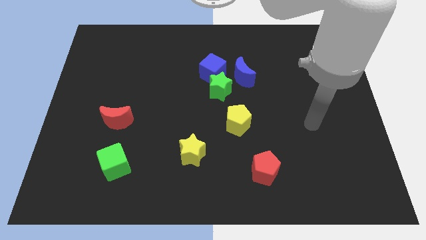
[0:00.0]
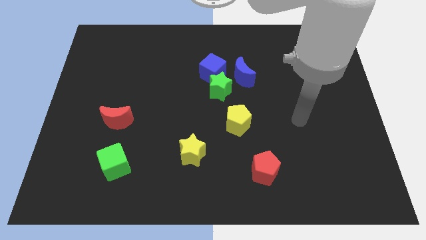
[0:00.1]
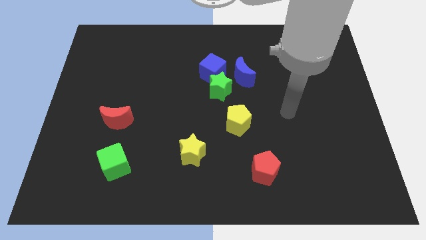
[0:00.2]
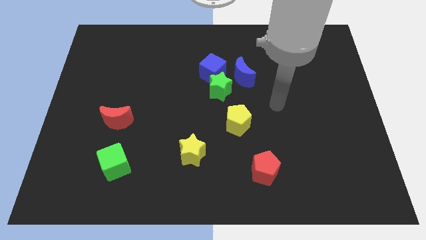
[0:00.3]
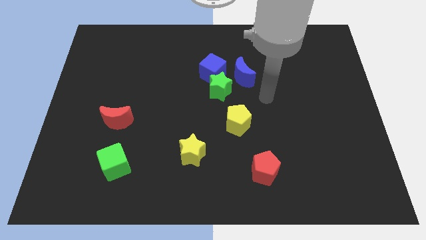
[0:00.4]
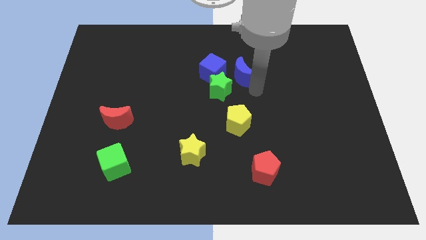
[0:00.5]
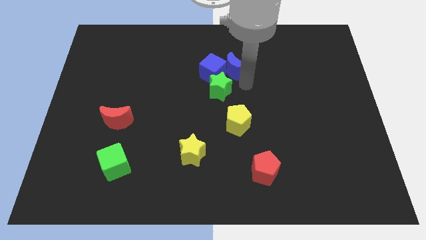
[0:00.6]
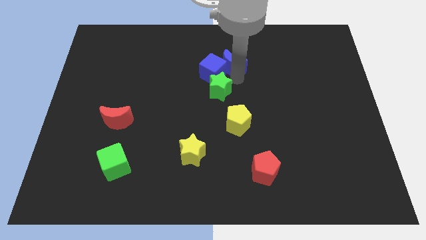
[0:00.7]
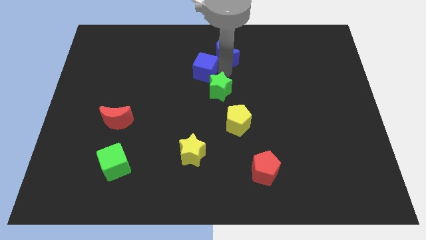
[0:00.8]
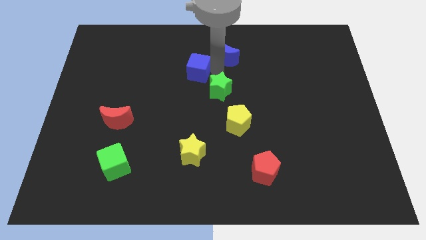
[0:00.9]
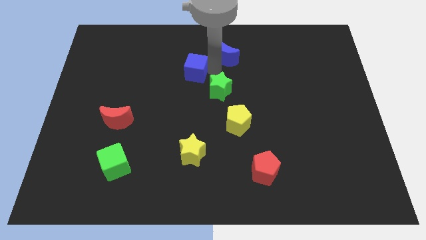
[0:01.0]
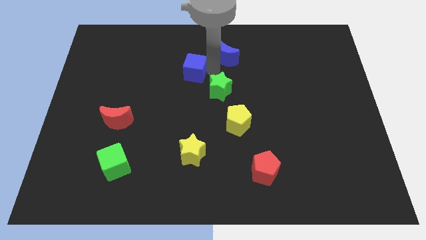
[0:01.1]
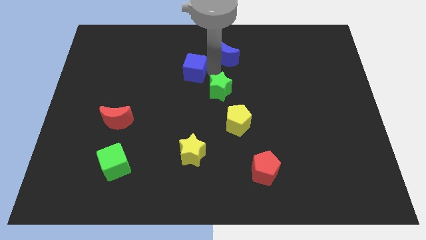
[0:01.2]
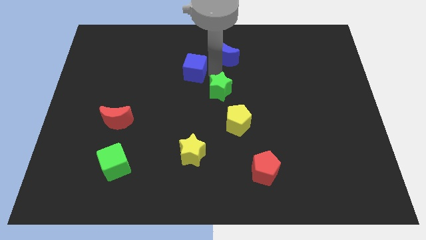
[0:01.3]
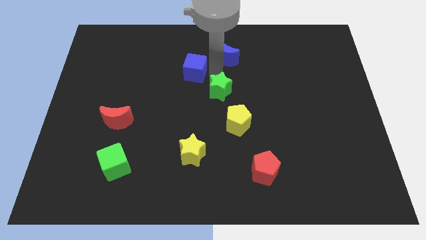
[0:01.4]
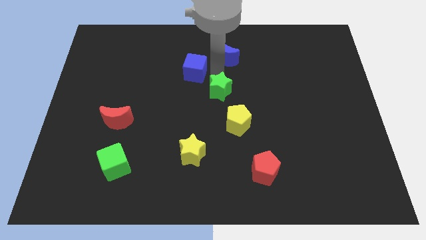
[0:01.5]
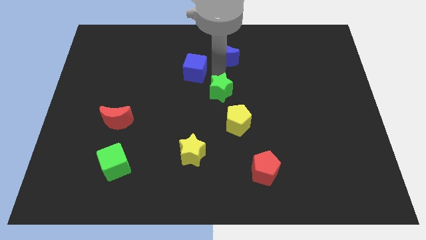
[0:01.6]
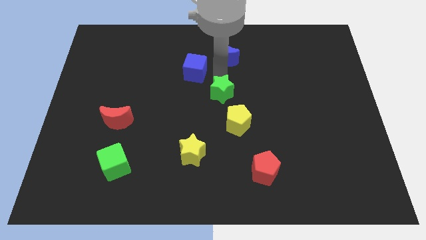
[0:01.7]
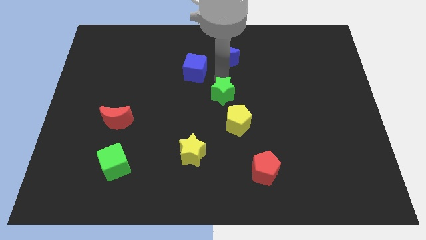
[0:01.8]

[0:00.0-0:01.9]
move the green star away from the blue cube and blue moon

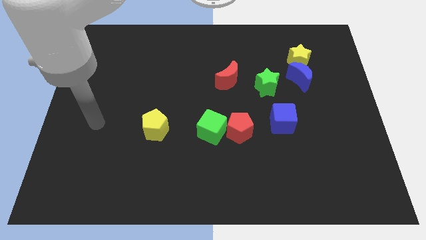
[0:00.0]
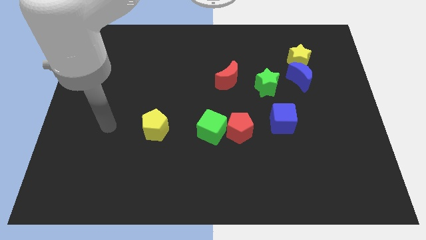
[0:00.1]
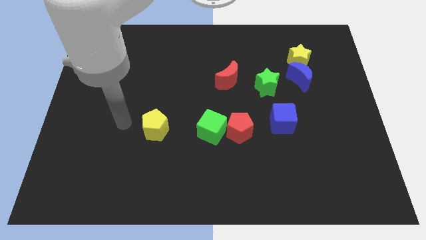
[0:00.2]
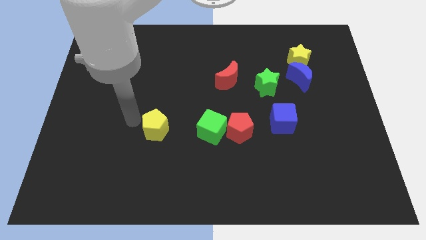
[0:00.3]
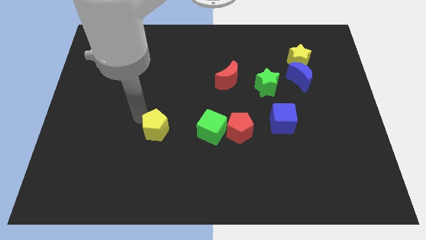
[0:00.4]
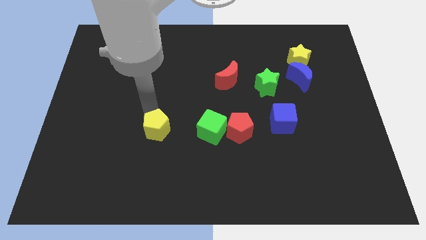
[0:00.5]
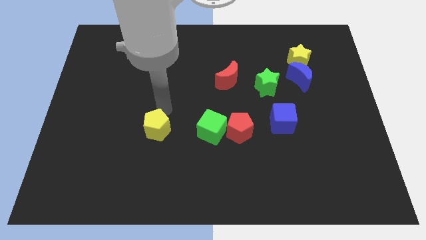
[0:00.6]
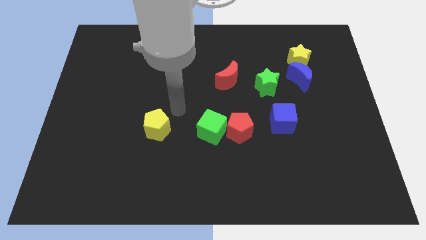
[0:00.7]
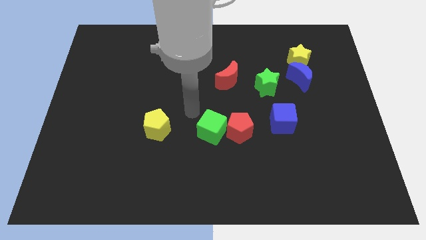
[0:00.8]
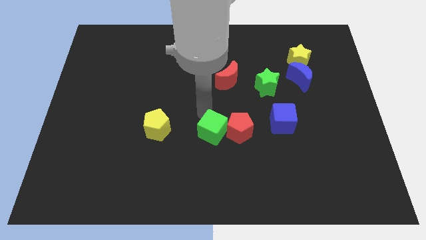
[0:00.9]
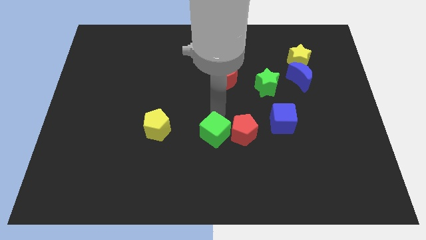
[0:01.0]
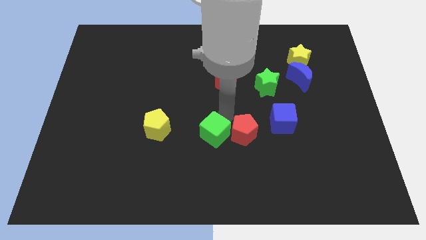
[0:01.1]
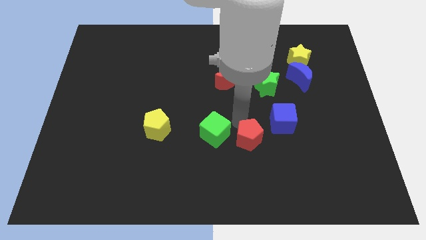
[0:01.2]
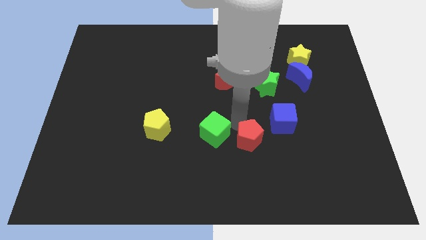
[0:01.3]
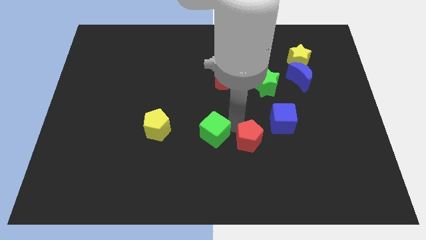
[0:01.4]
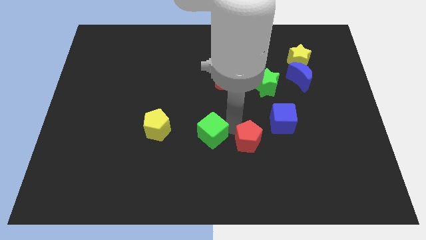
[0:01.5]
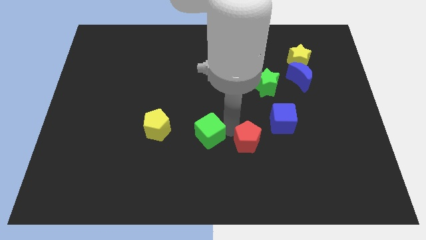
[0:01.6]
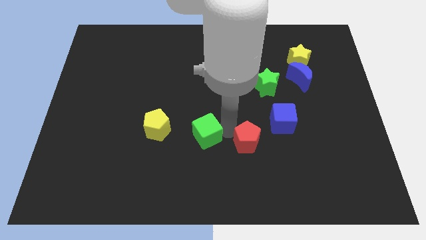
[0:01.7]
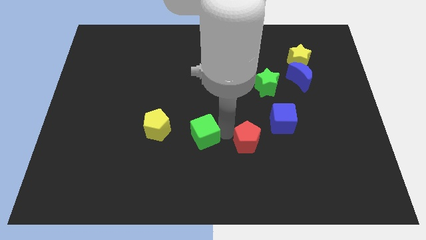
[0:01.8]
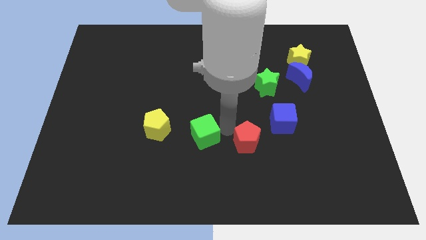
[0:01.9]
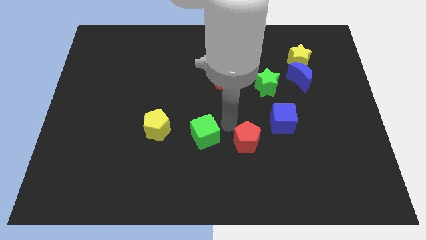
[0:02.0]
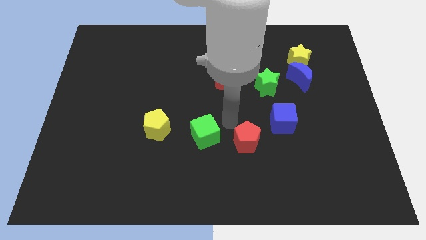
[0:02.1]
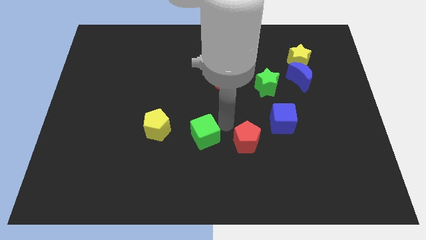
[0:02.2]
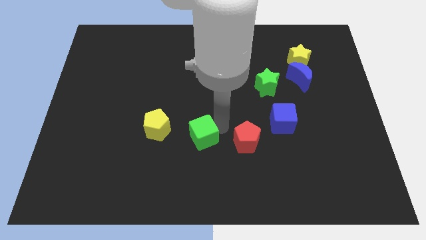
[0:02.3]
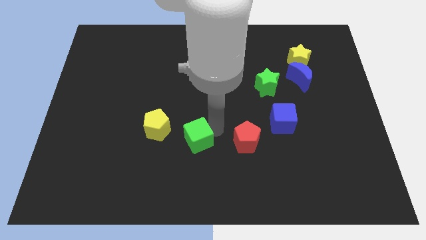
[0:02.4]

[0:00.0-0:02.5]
move the green cube away from the red pentagon

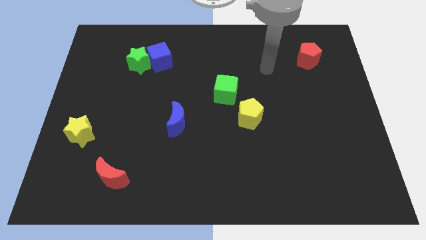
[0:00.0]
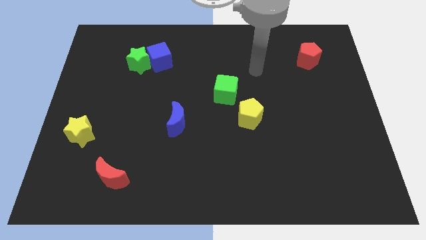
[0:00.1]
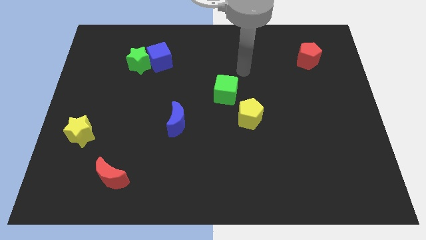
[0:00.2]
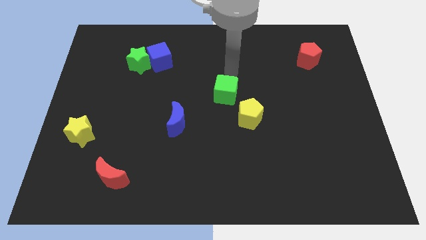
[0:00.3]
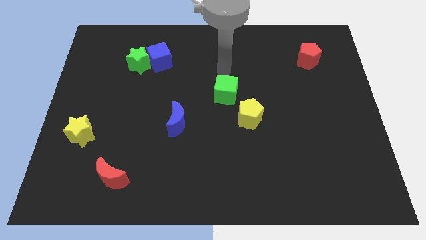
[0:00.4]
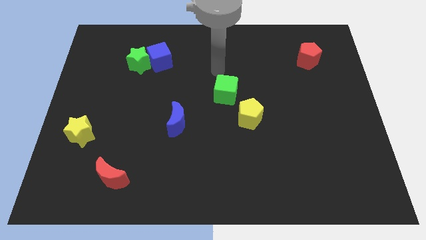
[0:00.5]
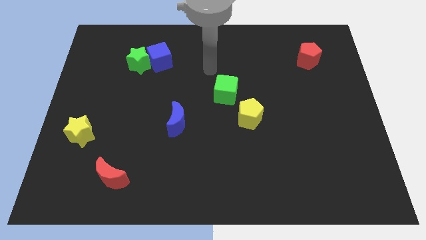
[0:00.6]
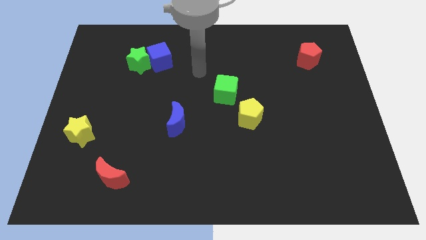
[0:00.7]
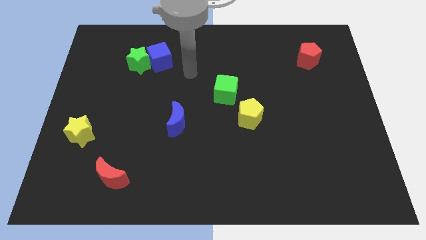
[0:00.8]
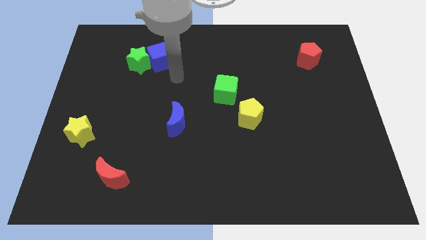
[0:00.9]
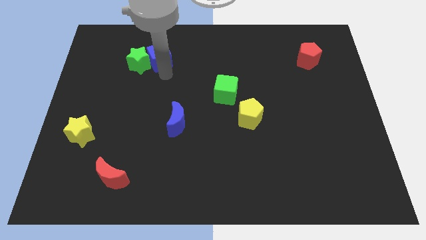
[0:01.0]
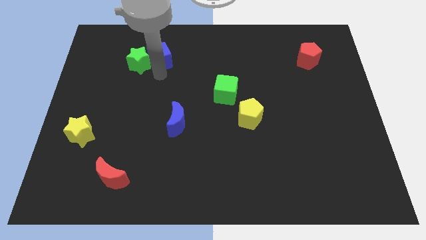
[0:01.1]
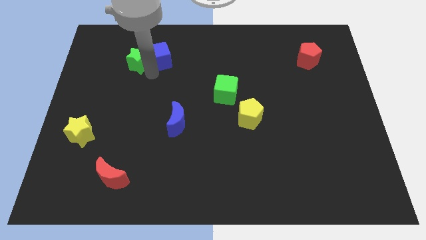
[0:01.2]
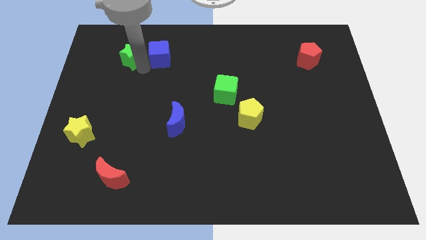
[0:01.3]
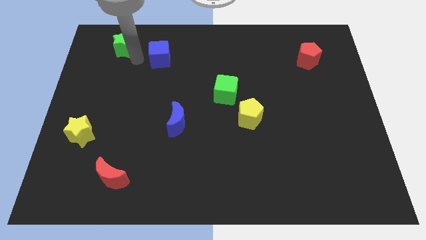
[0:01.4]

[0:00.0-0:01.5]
move the blue cube away from the green star

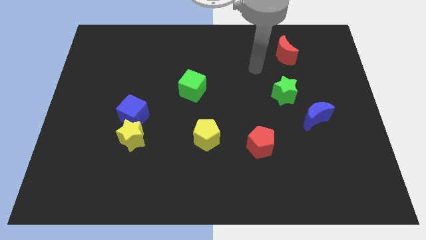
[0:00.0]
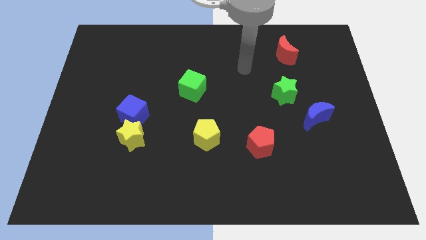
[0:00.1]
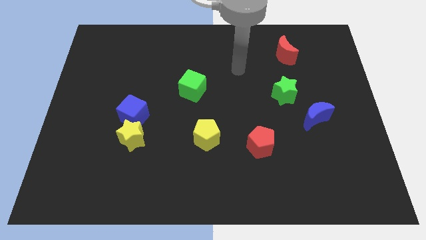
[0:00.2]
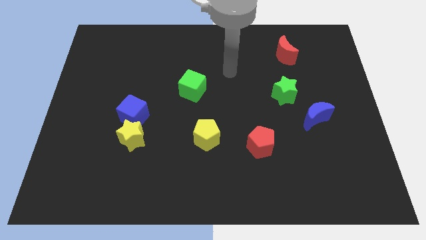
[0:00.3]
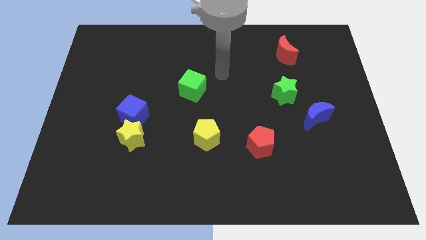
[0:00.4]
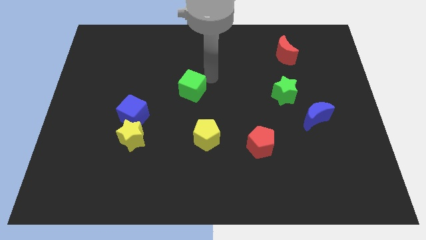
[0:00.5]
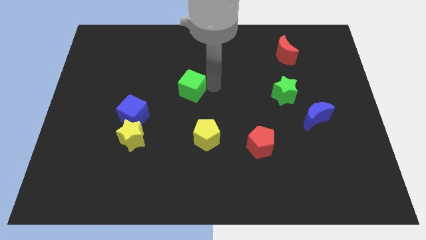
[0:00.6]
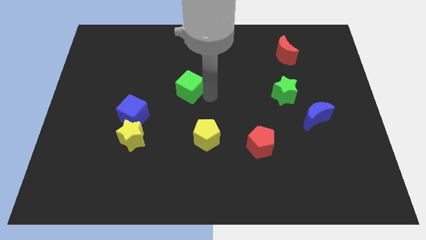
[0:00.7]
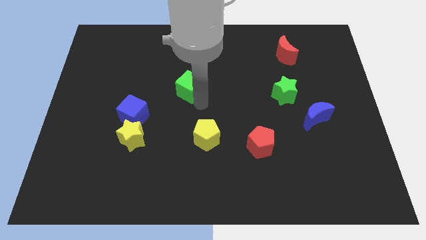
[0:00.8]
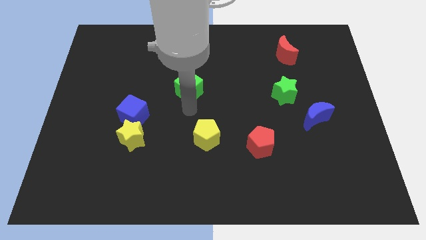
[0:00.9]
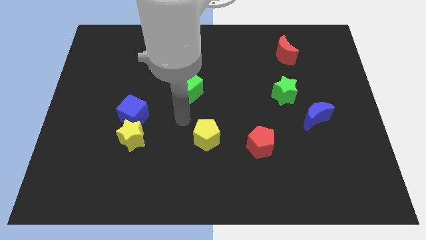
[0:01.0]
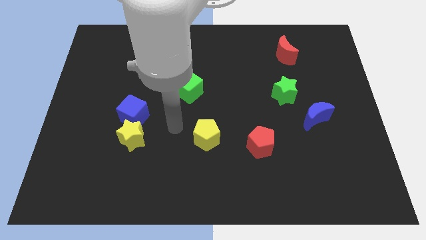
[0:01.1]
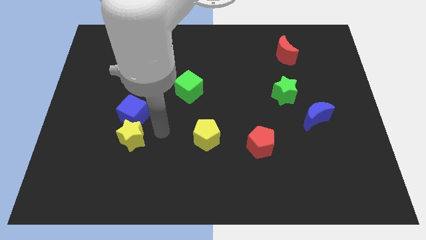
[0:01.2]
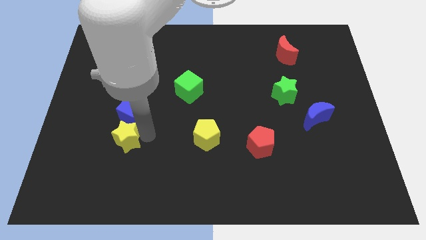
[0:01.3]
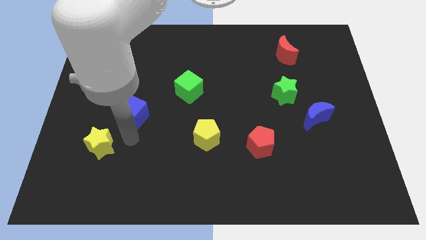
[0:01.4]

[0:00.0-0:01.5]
pull the blue cube apart from the yellow star

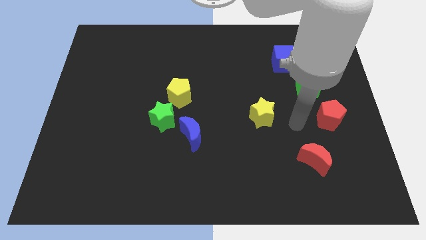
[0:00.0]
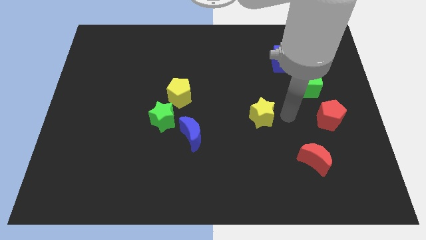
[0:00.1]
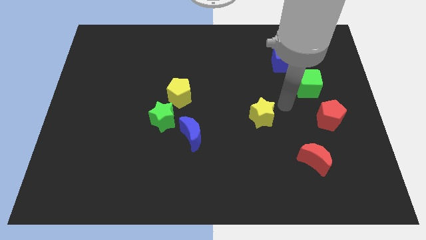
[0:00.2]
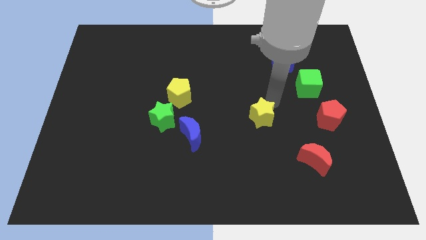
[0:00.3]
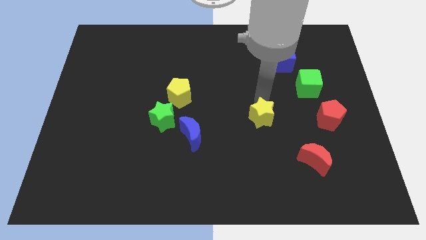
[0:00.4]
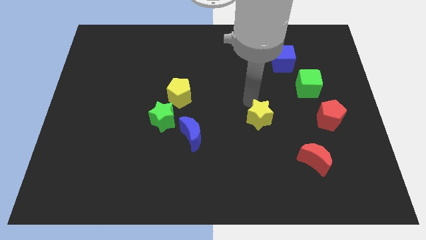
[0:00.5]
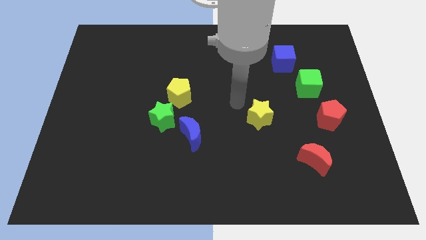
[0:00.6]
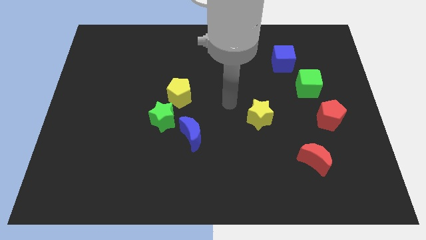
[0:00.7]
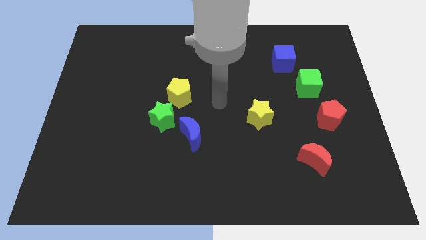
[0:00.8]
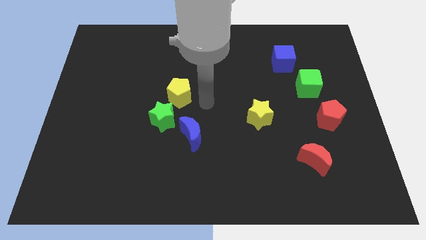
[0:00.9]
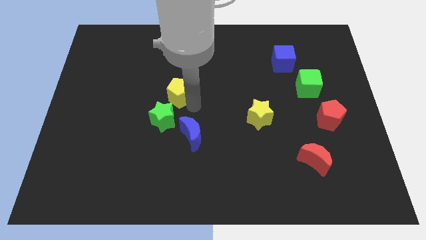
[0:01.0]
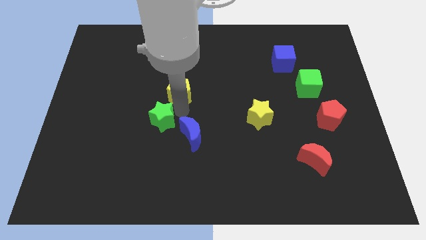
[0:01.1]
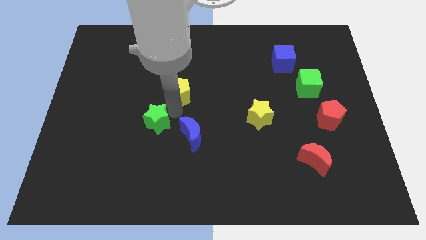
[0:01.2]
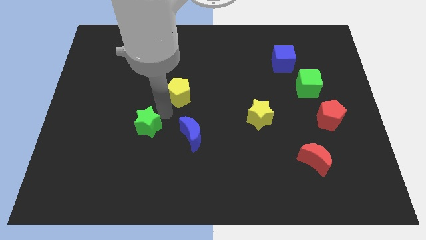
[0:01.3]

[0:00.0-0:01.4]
separate the yellow pentagon from the green star

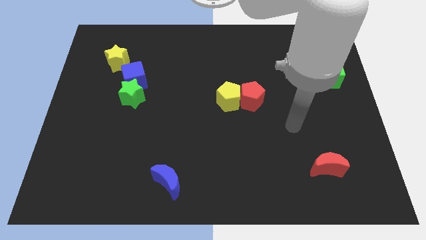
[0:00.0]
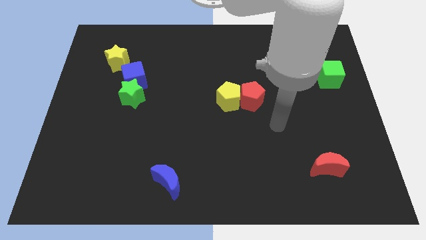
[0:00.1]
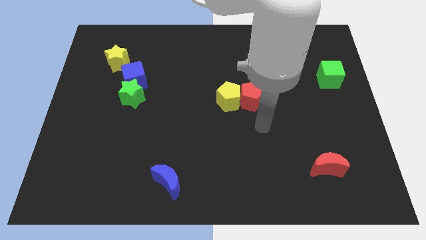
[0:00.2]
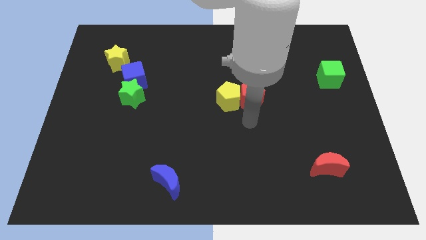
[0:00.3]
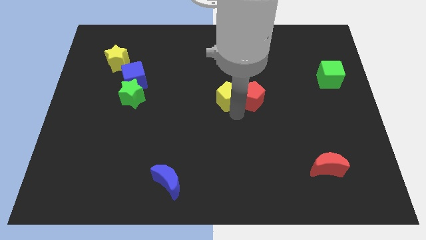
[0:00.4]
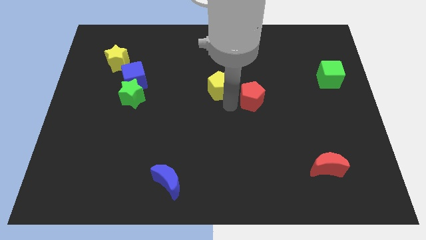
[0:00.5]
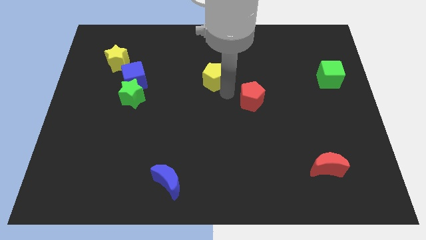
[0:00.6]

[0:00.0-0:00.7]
move the red pentagon away from the yellow pentagon

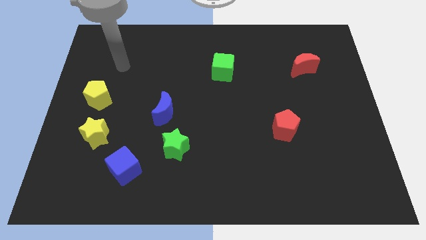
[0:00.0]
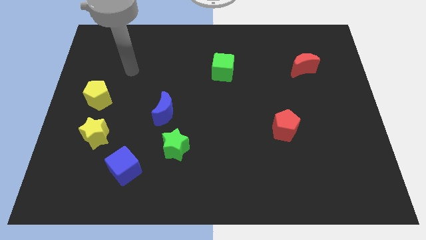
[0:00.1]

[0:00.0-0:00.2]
pull the blue moon apart from the green star
